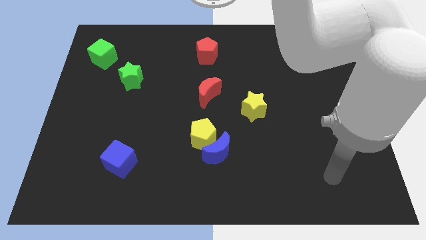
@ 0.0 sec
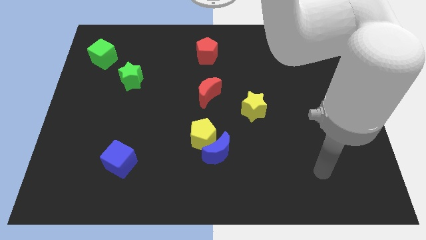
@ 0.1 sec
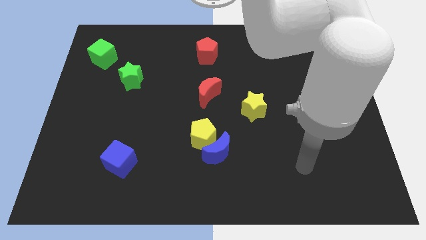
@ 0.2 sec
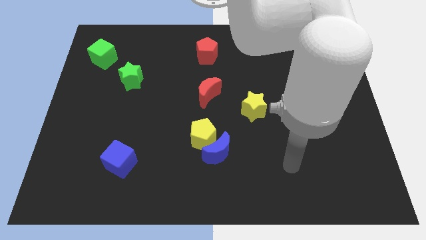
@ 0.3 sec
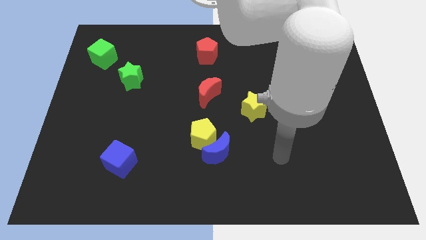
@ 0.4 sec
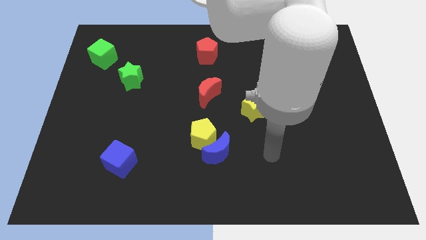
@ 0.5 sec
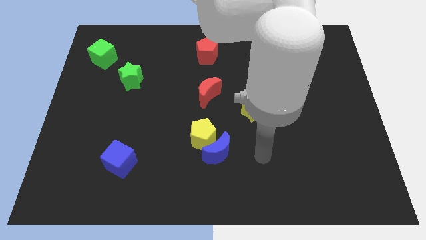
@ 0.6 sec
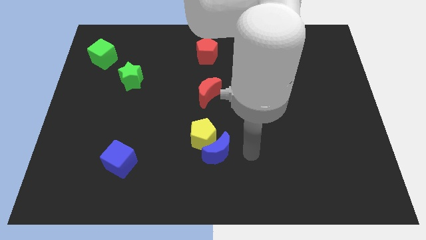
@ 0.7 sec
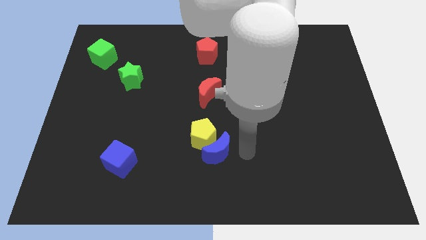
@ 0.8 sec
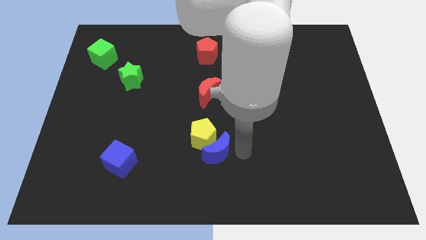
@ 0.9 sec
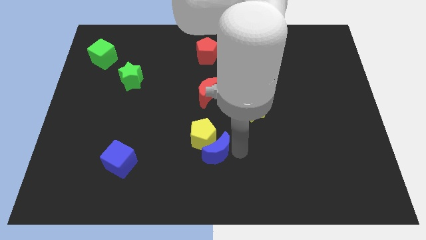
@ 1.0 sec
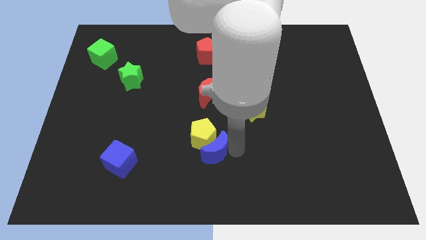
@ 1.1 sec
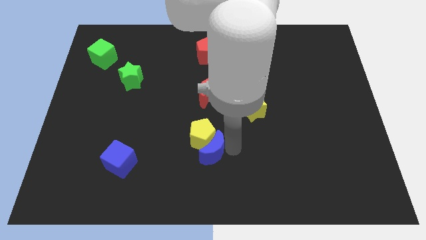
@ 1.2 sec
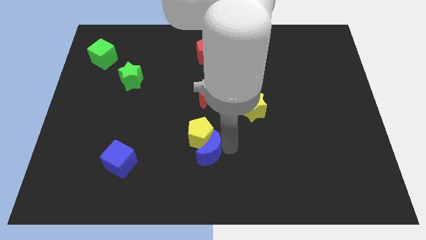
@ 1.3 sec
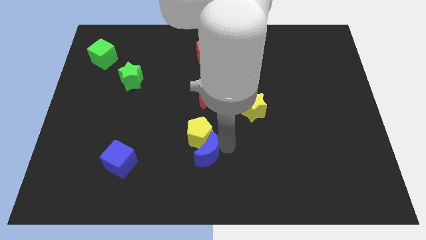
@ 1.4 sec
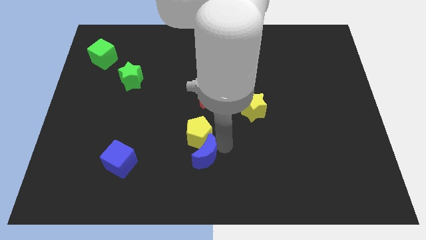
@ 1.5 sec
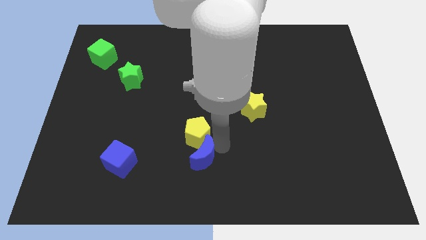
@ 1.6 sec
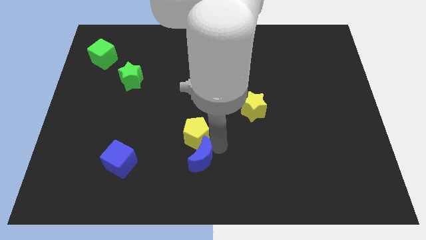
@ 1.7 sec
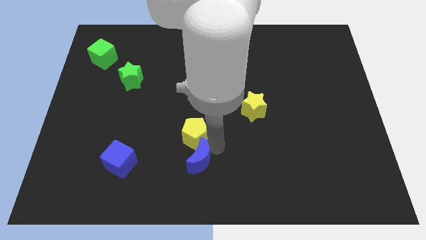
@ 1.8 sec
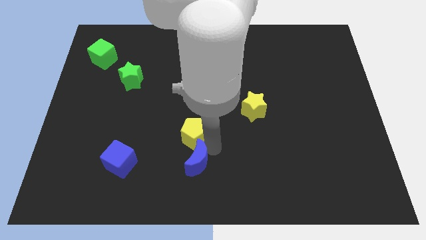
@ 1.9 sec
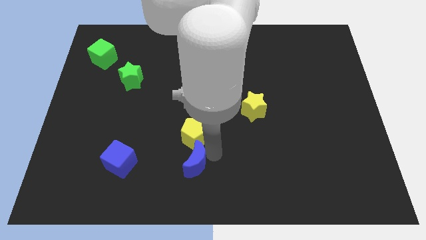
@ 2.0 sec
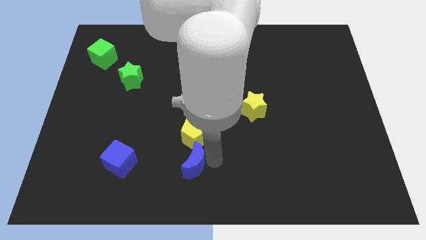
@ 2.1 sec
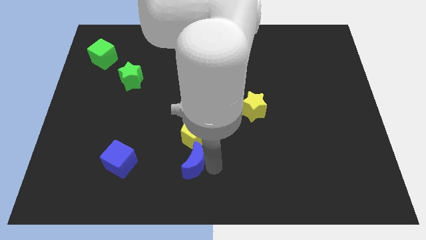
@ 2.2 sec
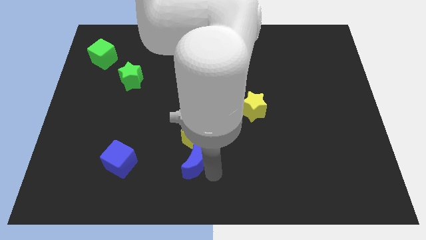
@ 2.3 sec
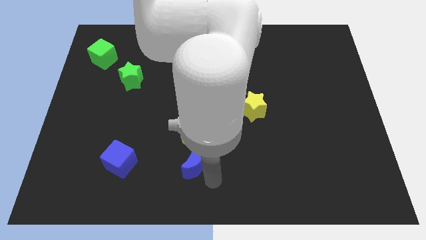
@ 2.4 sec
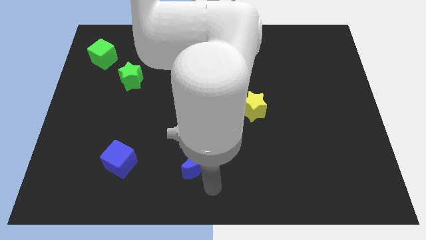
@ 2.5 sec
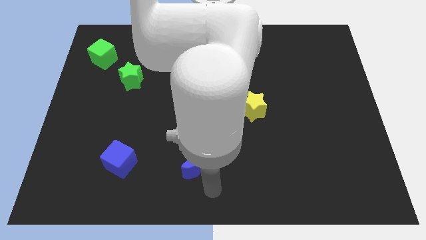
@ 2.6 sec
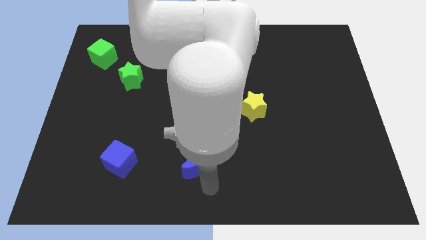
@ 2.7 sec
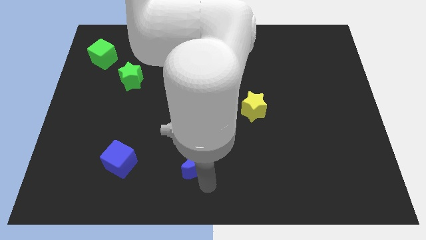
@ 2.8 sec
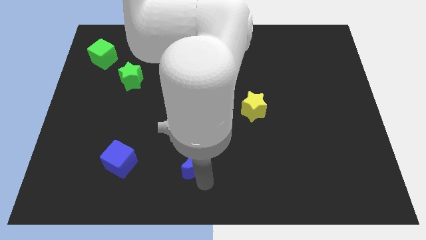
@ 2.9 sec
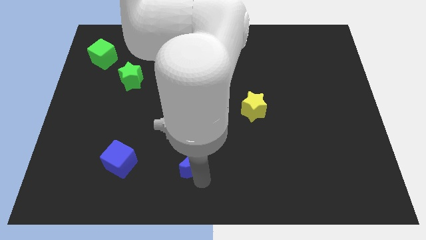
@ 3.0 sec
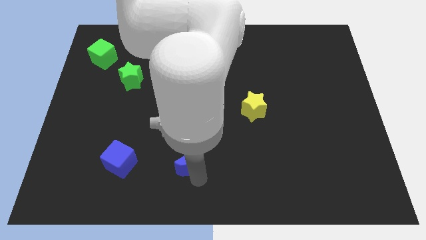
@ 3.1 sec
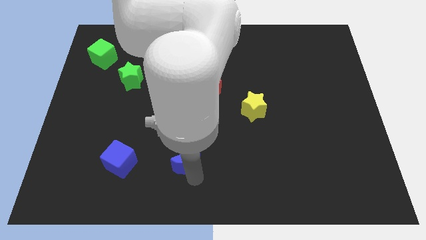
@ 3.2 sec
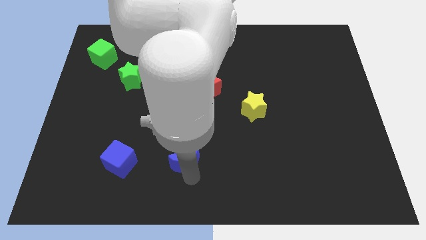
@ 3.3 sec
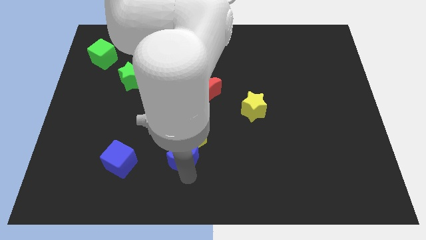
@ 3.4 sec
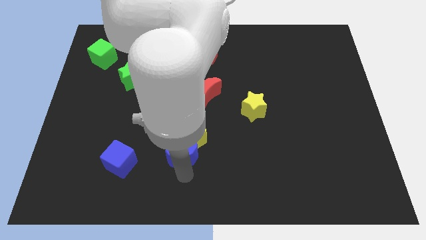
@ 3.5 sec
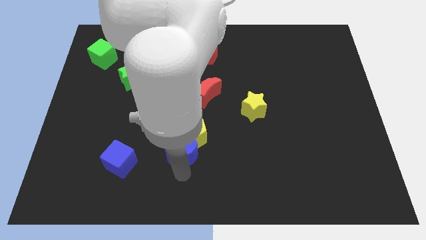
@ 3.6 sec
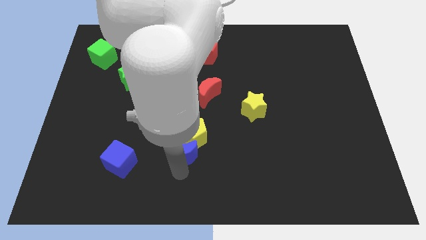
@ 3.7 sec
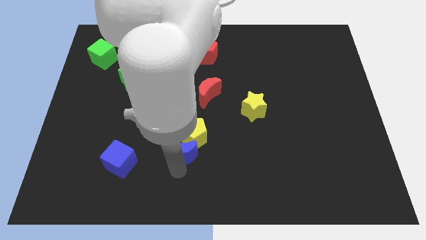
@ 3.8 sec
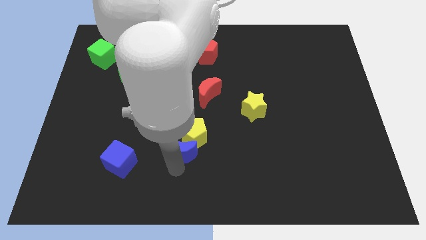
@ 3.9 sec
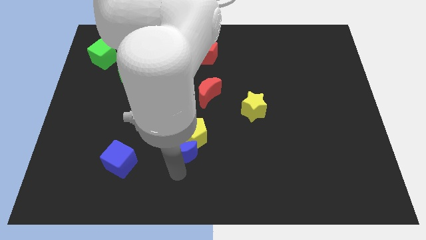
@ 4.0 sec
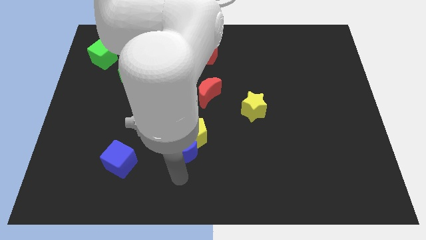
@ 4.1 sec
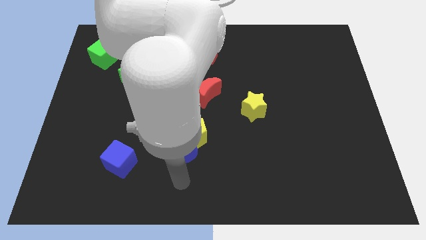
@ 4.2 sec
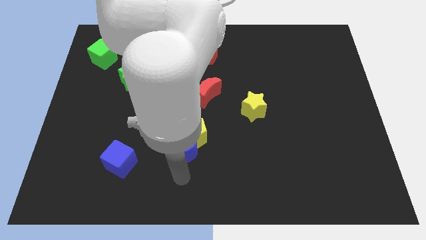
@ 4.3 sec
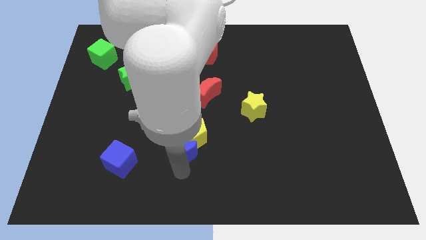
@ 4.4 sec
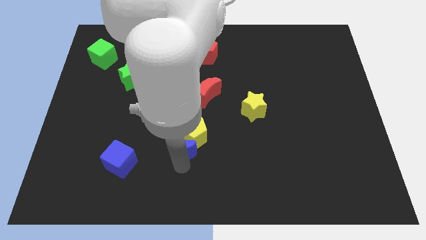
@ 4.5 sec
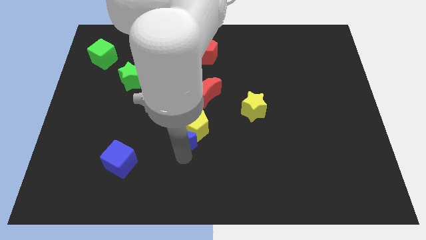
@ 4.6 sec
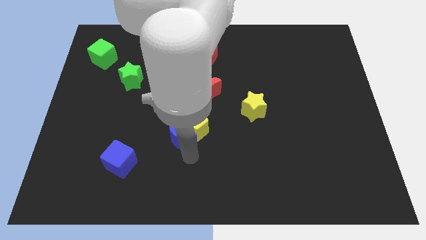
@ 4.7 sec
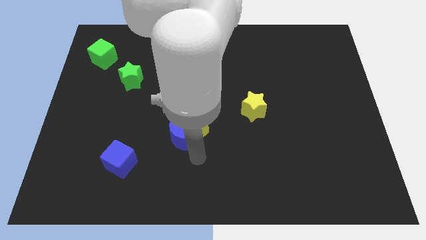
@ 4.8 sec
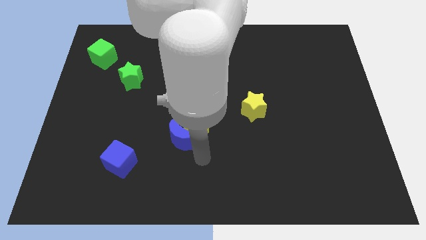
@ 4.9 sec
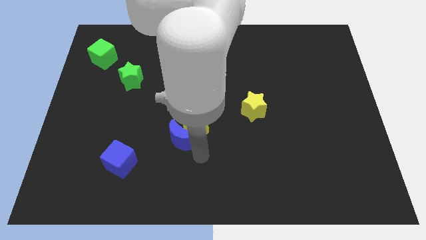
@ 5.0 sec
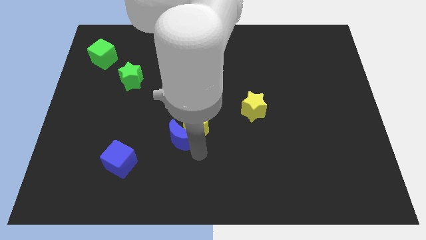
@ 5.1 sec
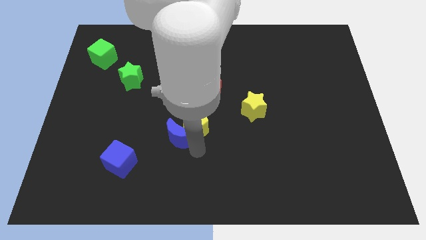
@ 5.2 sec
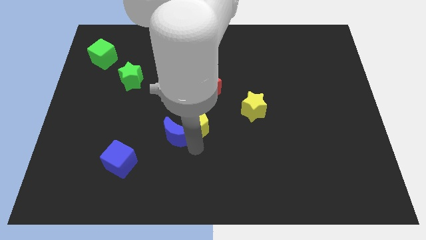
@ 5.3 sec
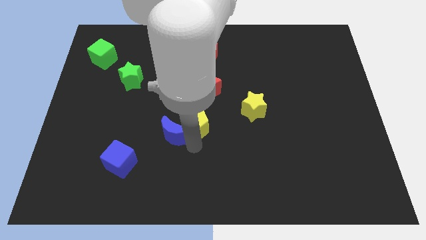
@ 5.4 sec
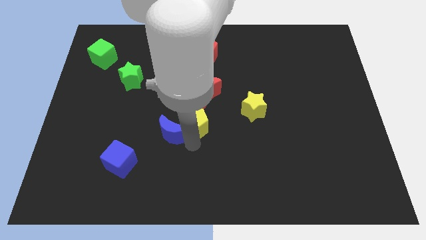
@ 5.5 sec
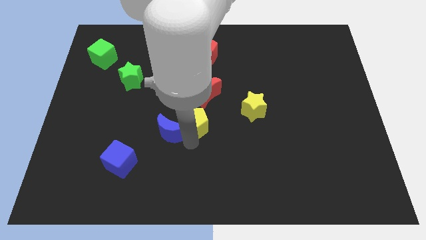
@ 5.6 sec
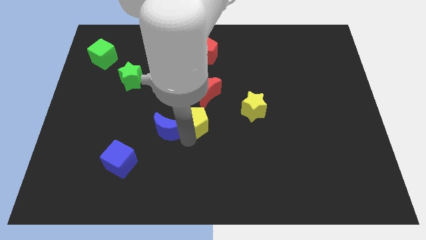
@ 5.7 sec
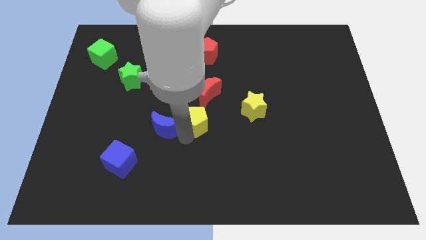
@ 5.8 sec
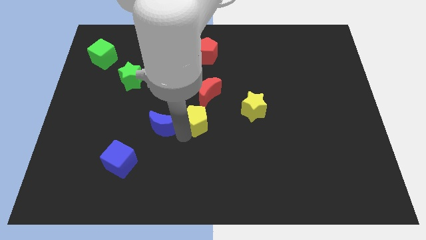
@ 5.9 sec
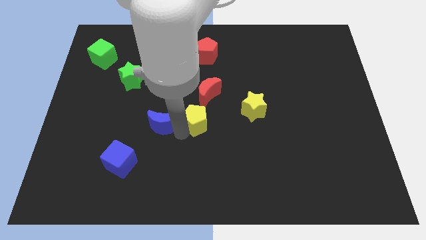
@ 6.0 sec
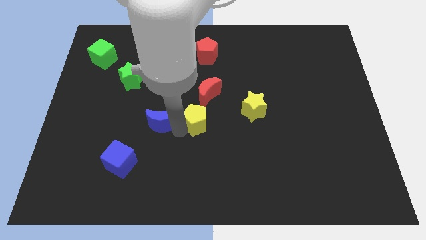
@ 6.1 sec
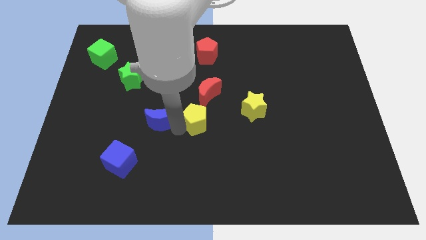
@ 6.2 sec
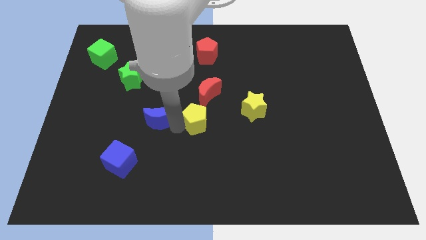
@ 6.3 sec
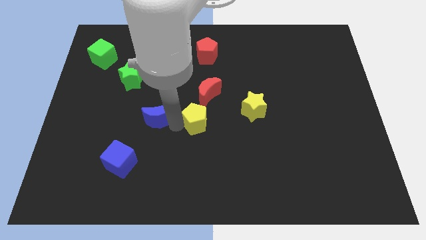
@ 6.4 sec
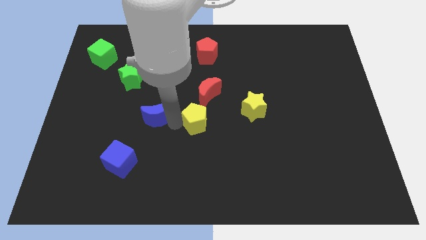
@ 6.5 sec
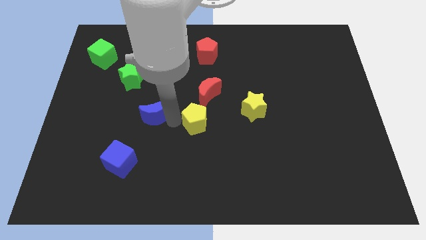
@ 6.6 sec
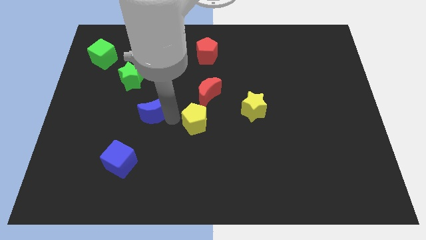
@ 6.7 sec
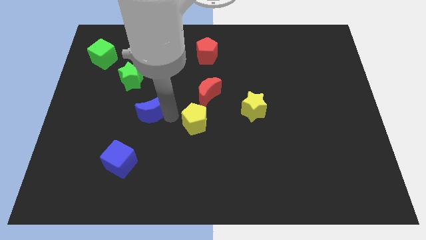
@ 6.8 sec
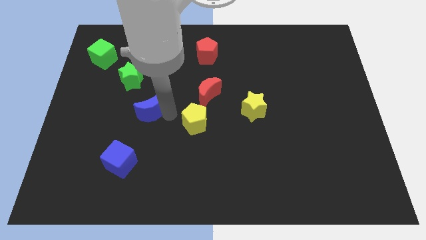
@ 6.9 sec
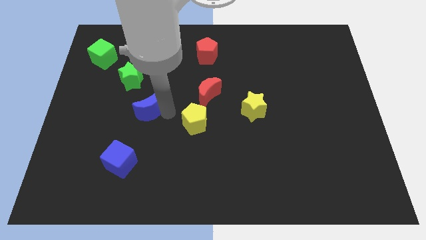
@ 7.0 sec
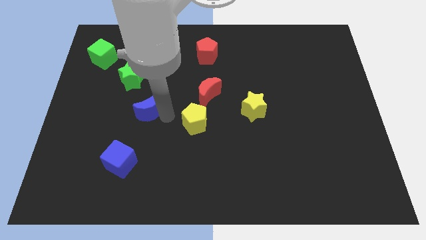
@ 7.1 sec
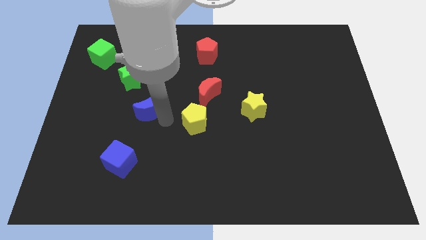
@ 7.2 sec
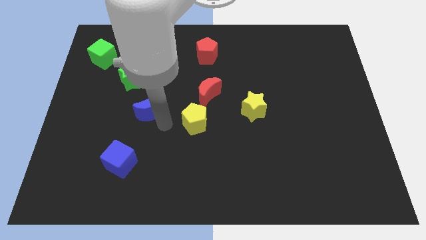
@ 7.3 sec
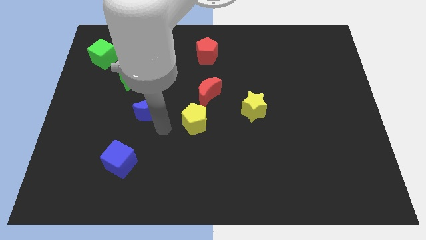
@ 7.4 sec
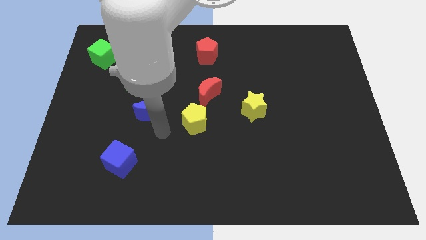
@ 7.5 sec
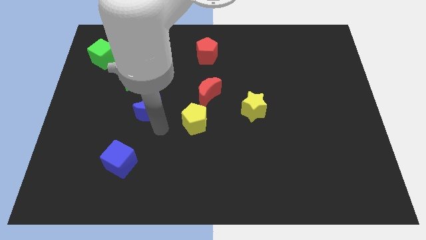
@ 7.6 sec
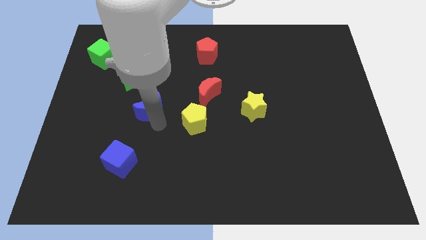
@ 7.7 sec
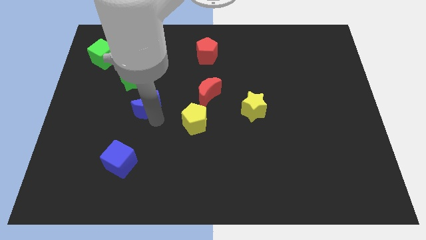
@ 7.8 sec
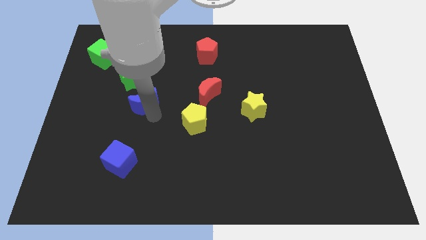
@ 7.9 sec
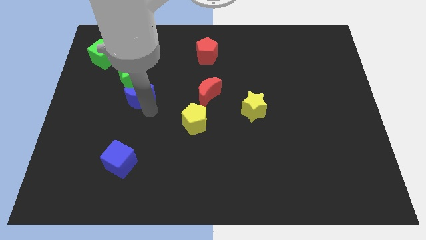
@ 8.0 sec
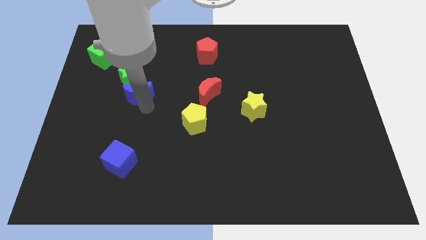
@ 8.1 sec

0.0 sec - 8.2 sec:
move the blue moon towards the green star
